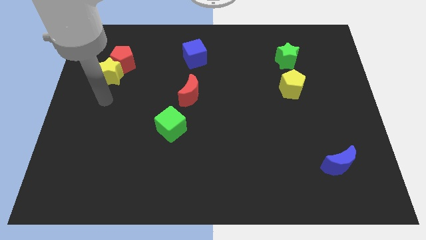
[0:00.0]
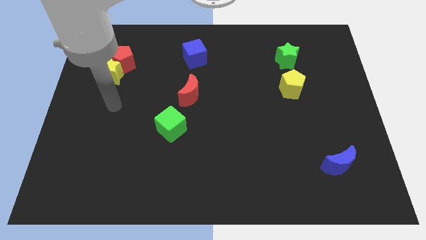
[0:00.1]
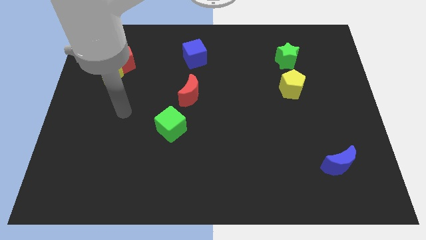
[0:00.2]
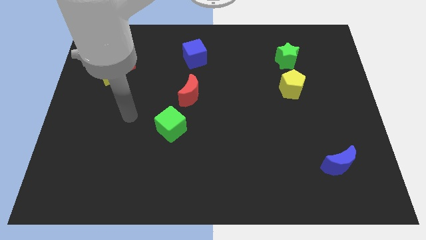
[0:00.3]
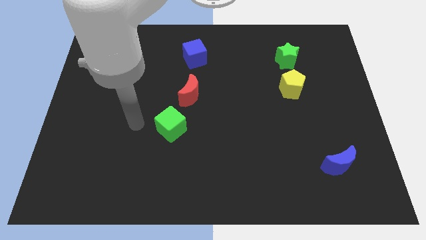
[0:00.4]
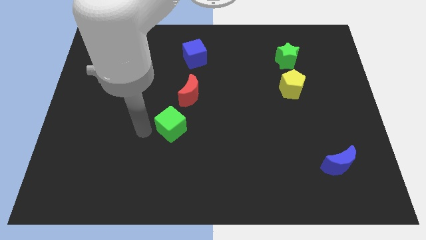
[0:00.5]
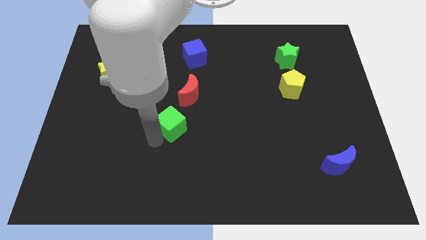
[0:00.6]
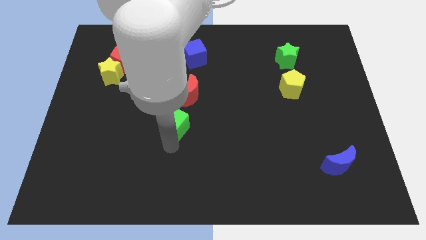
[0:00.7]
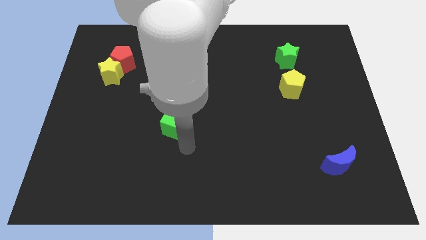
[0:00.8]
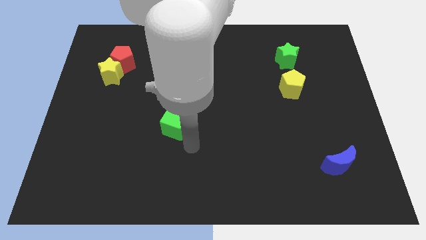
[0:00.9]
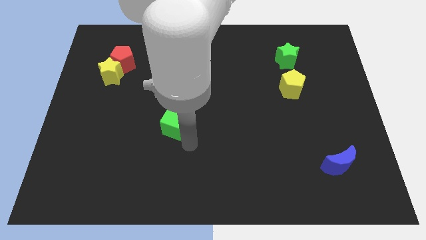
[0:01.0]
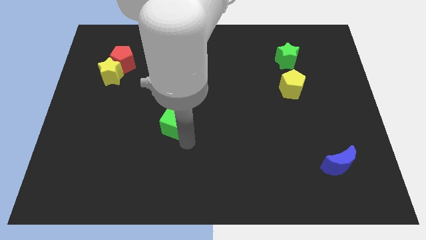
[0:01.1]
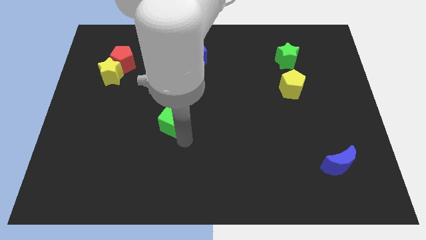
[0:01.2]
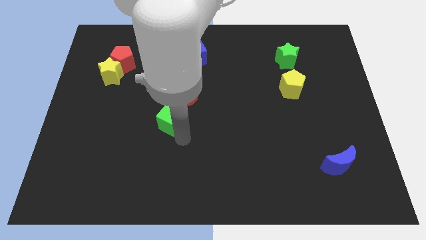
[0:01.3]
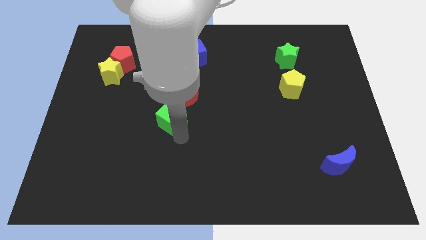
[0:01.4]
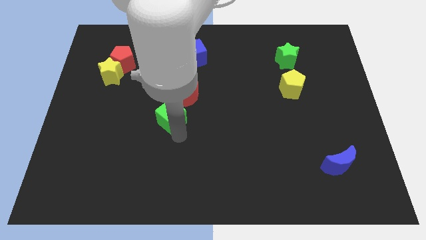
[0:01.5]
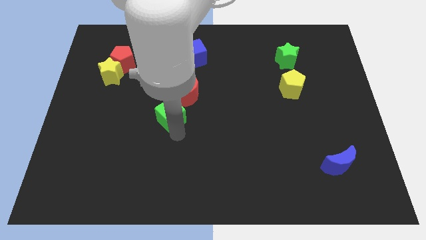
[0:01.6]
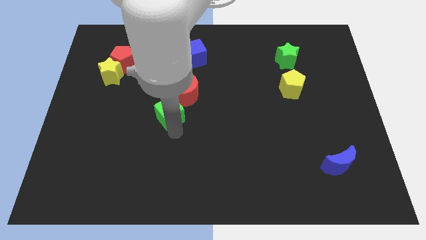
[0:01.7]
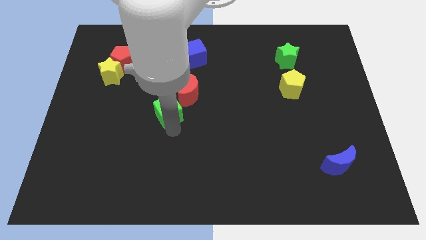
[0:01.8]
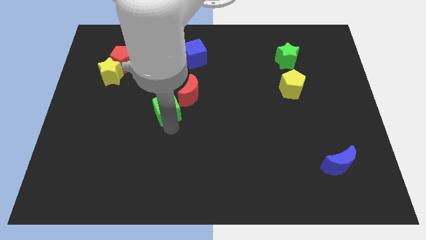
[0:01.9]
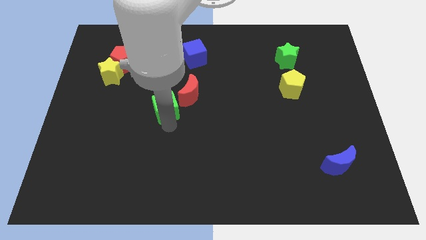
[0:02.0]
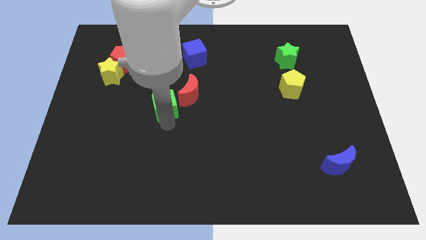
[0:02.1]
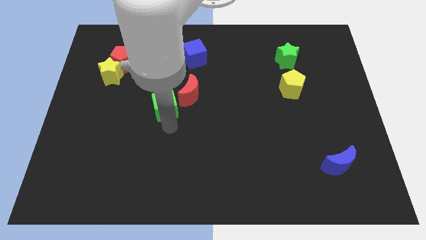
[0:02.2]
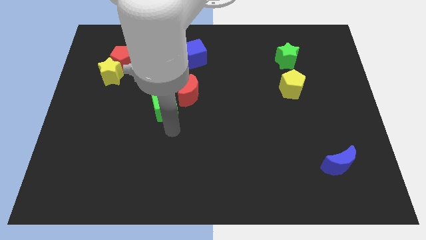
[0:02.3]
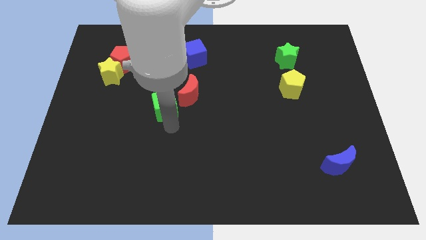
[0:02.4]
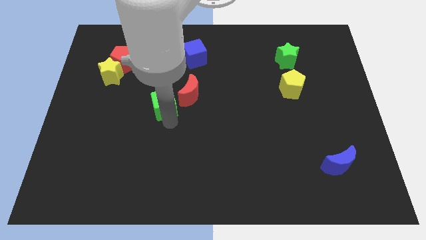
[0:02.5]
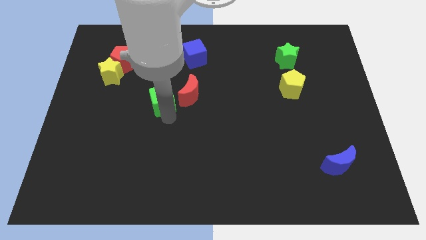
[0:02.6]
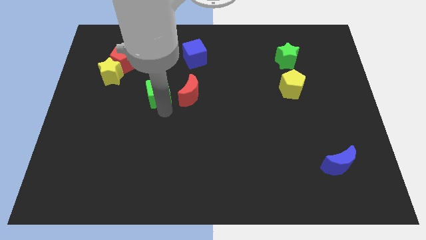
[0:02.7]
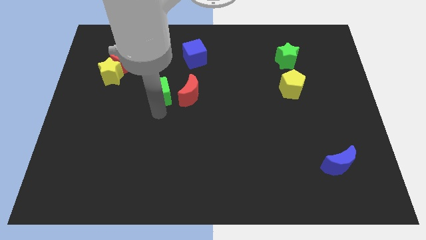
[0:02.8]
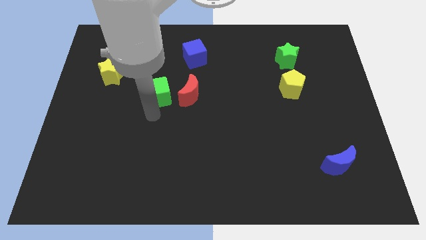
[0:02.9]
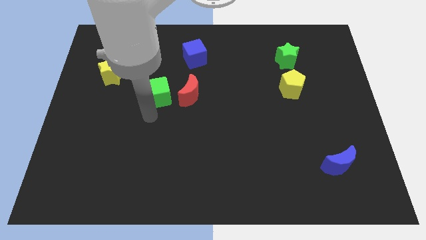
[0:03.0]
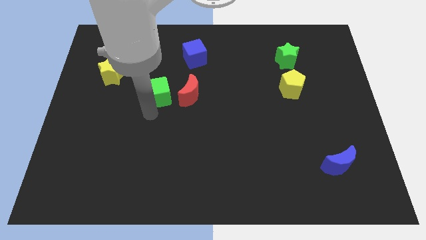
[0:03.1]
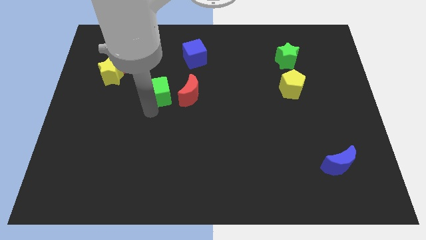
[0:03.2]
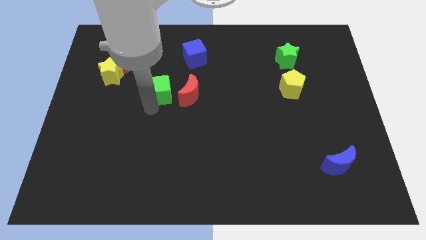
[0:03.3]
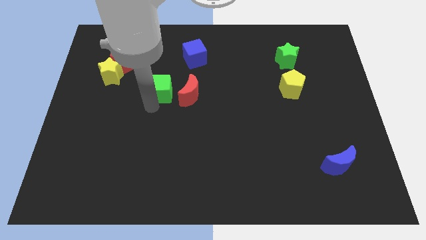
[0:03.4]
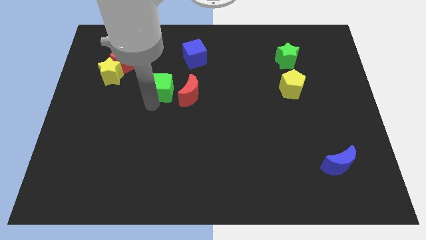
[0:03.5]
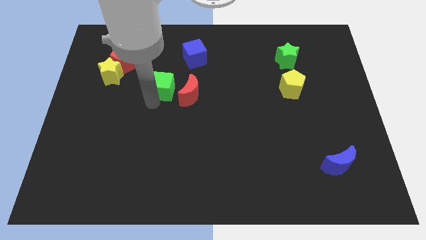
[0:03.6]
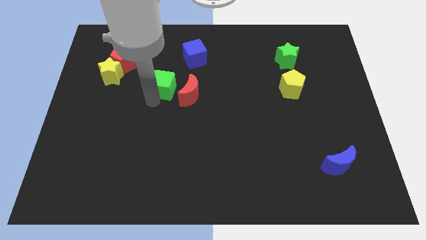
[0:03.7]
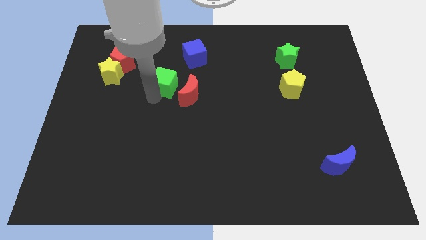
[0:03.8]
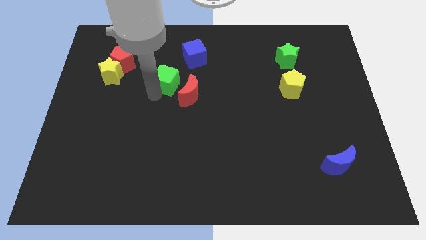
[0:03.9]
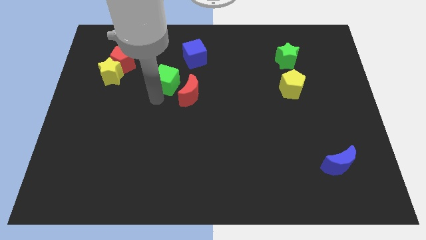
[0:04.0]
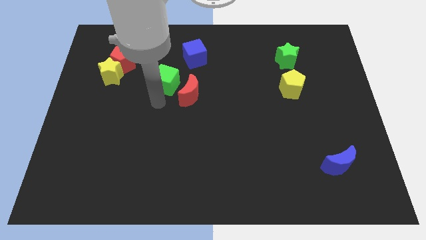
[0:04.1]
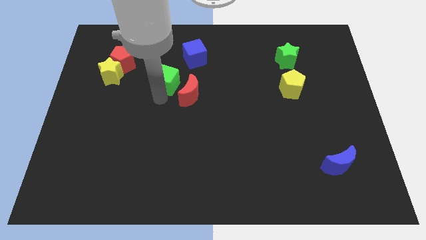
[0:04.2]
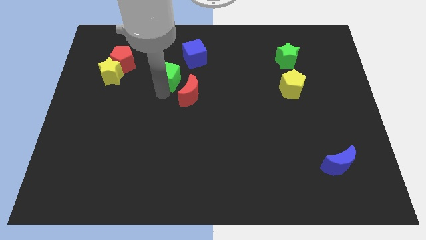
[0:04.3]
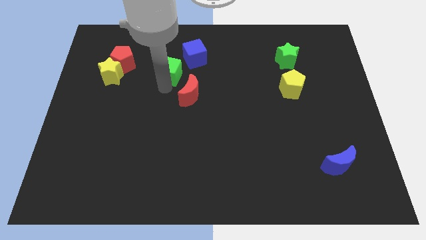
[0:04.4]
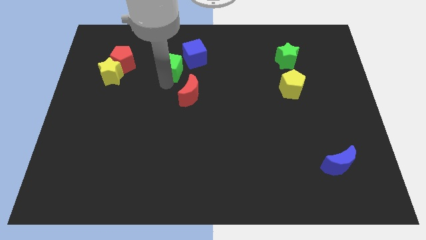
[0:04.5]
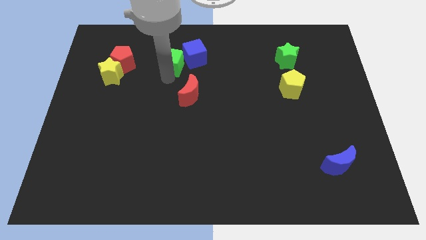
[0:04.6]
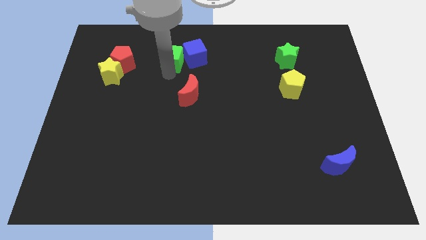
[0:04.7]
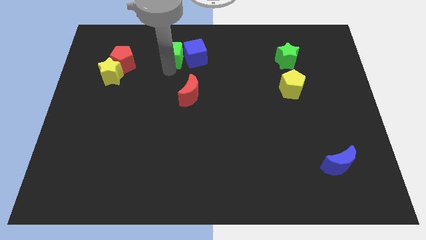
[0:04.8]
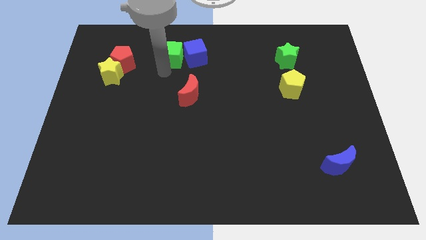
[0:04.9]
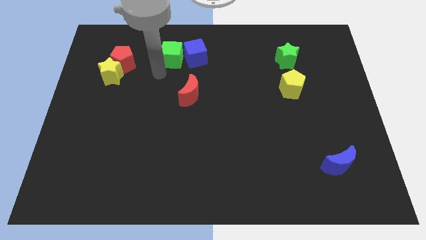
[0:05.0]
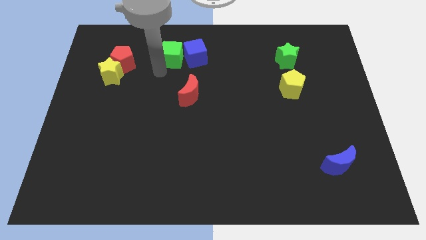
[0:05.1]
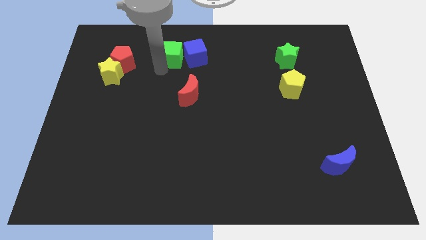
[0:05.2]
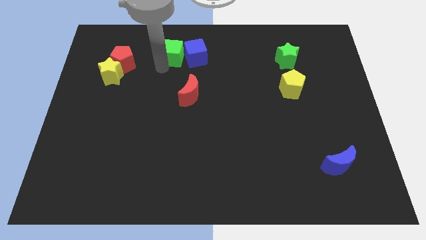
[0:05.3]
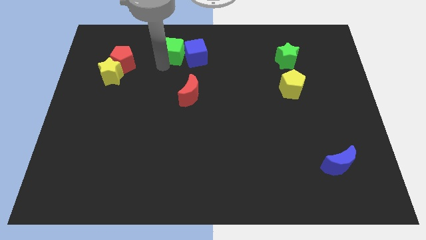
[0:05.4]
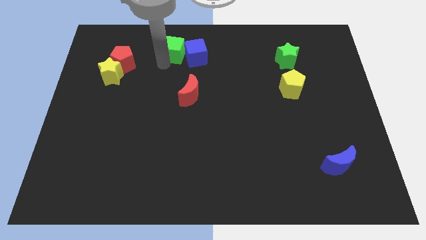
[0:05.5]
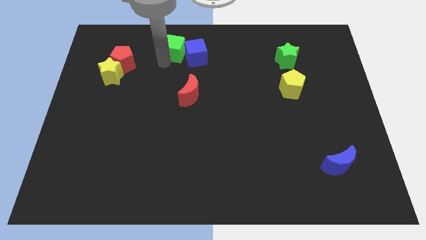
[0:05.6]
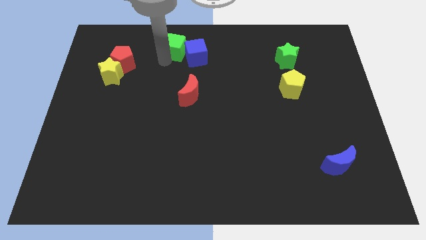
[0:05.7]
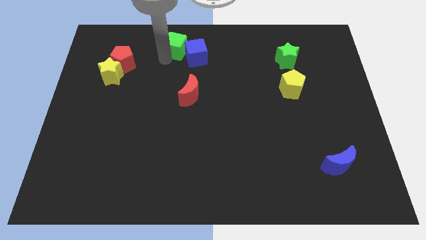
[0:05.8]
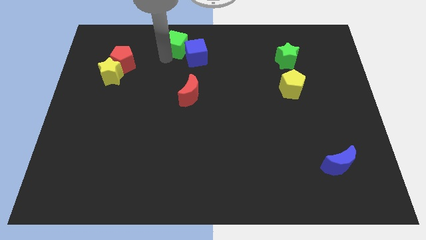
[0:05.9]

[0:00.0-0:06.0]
slide the green cube to the towards your base
